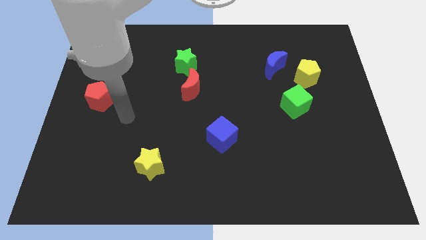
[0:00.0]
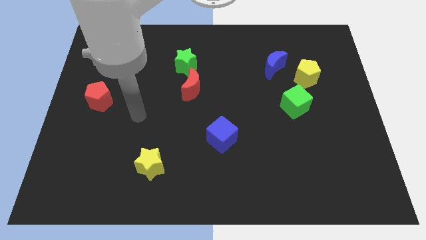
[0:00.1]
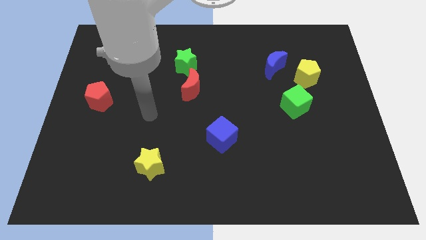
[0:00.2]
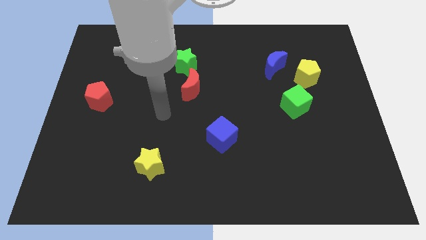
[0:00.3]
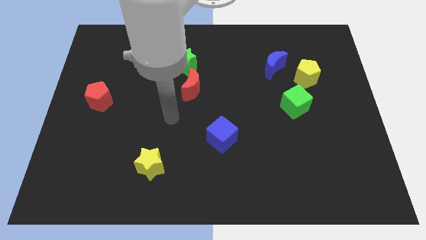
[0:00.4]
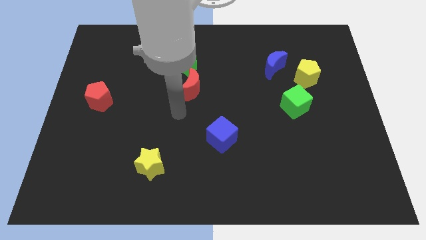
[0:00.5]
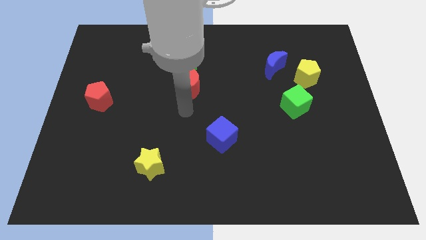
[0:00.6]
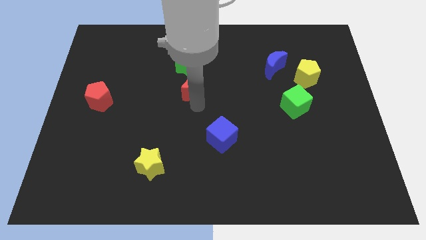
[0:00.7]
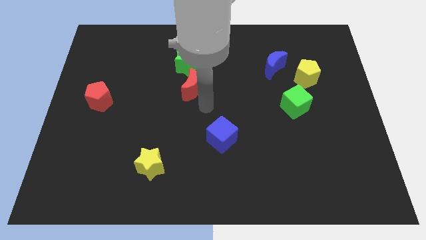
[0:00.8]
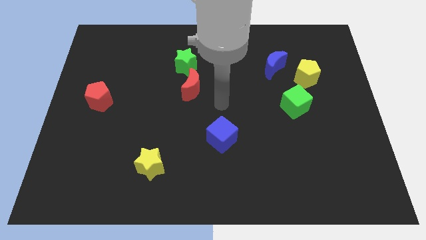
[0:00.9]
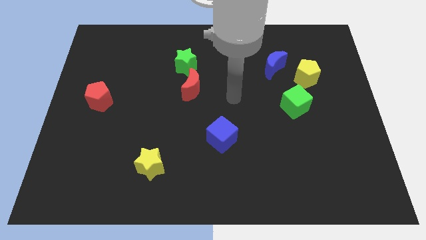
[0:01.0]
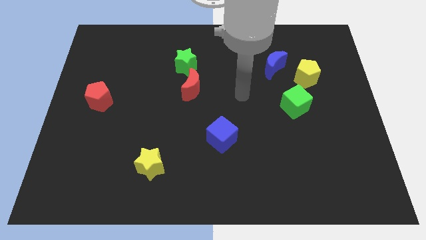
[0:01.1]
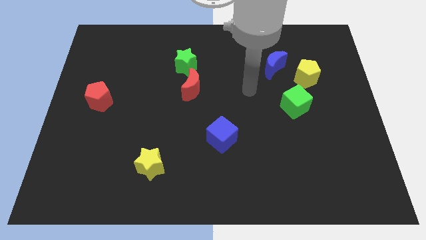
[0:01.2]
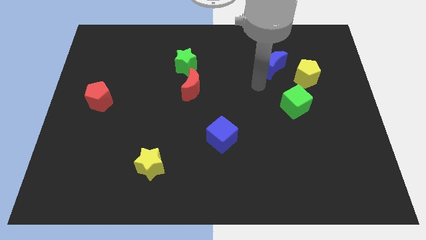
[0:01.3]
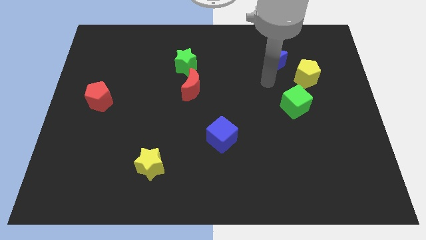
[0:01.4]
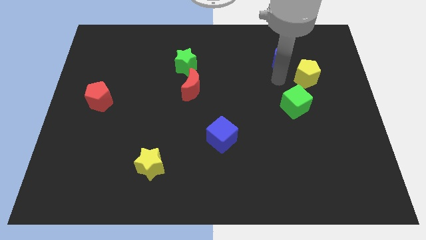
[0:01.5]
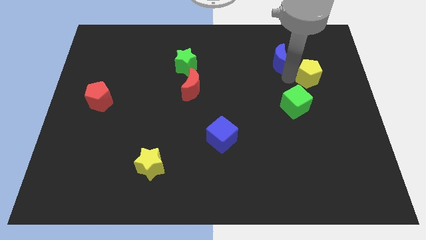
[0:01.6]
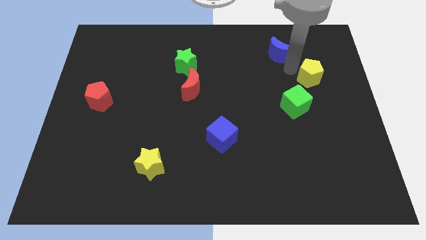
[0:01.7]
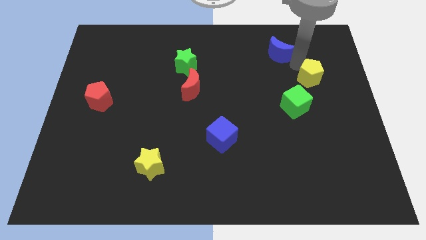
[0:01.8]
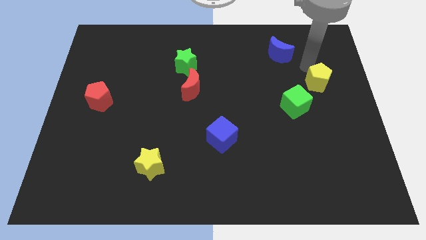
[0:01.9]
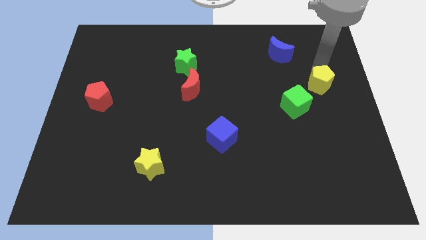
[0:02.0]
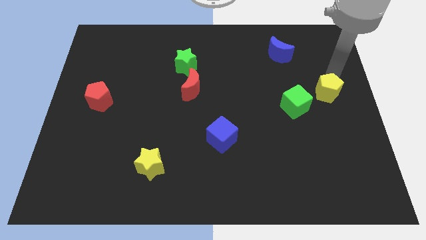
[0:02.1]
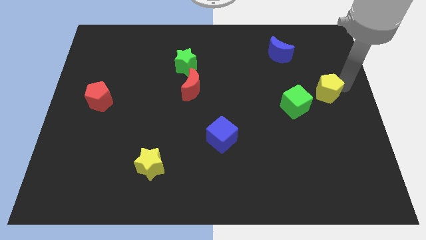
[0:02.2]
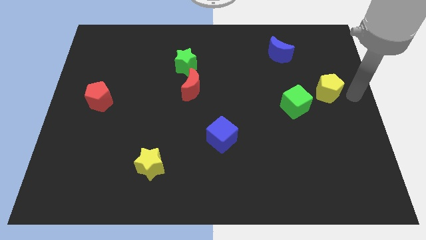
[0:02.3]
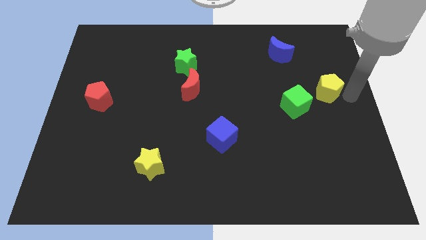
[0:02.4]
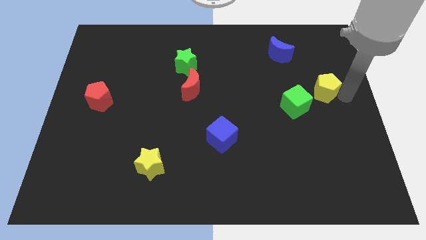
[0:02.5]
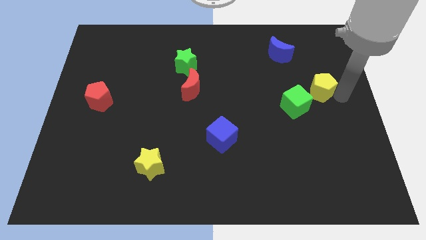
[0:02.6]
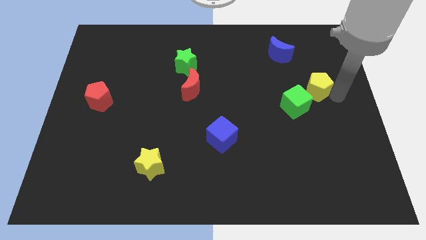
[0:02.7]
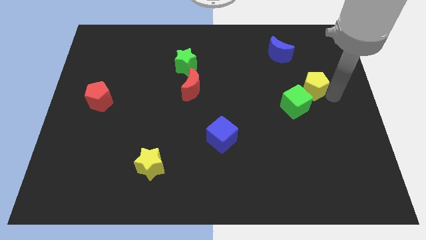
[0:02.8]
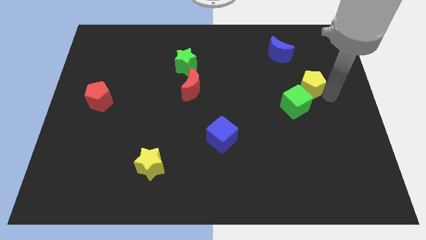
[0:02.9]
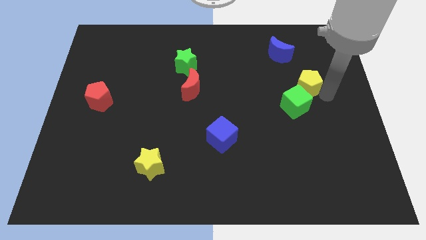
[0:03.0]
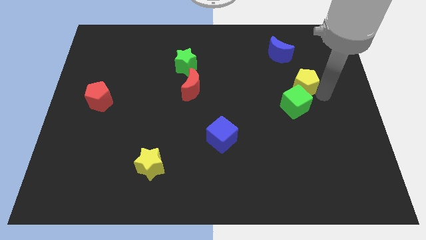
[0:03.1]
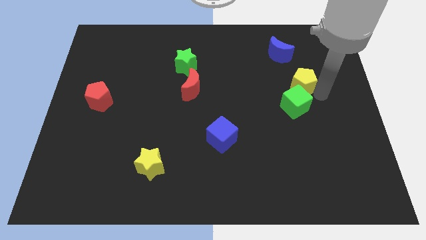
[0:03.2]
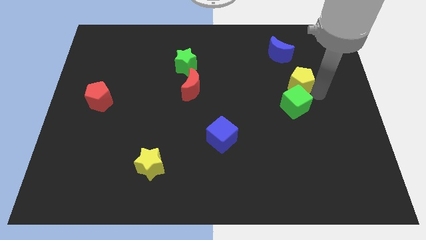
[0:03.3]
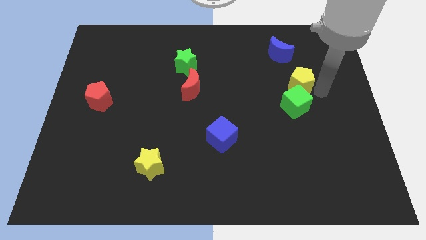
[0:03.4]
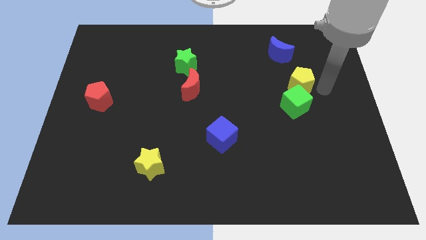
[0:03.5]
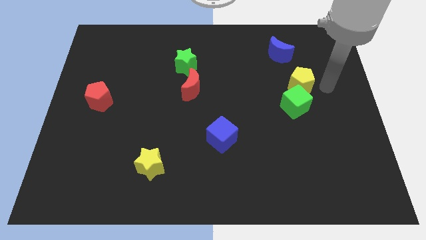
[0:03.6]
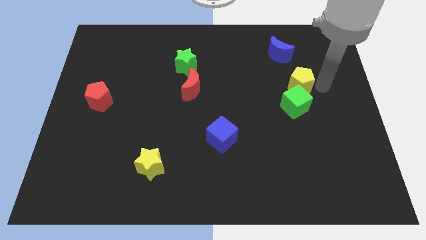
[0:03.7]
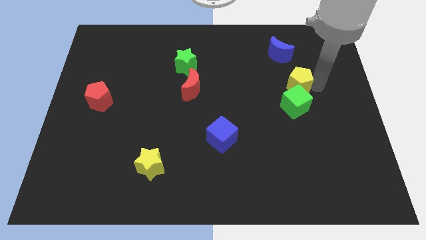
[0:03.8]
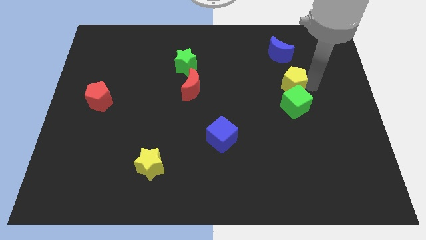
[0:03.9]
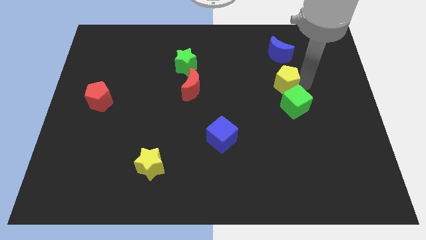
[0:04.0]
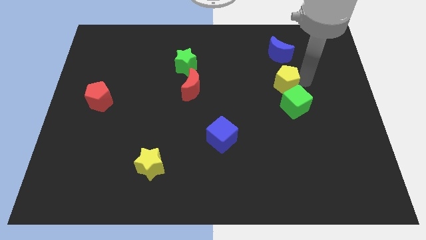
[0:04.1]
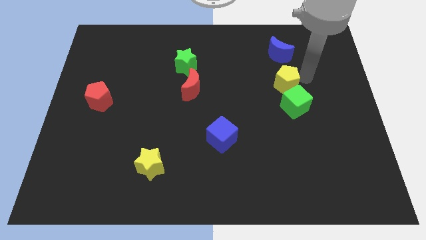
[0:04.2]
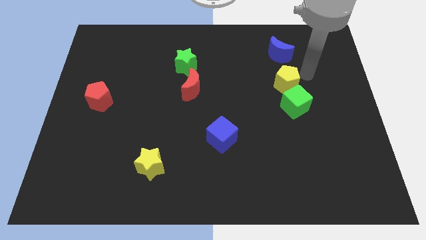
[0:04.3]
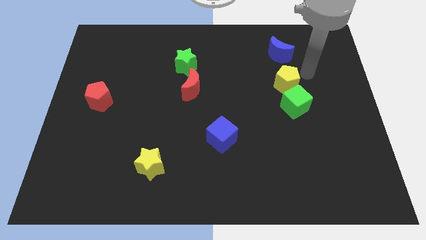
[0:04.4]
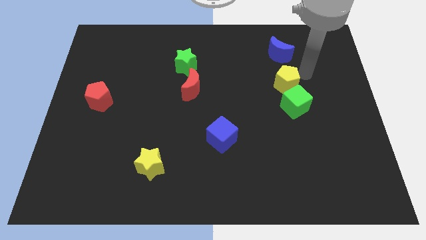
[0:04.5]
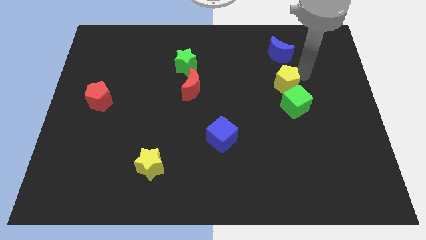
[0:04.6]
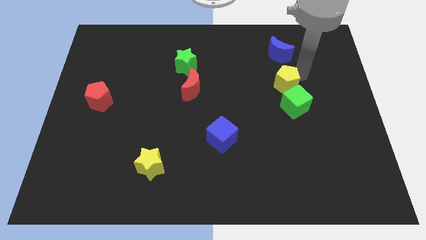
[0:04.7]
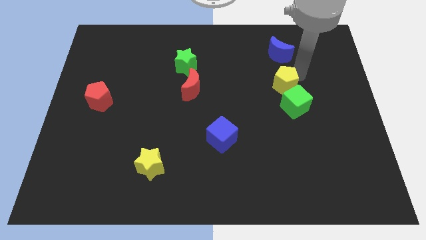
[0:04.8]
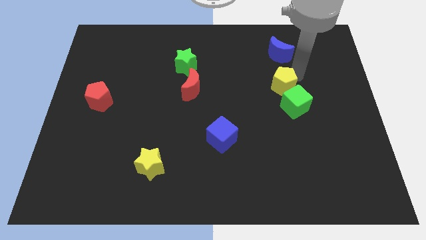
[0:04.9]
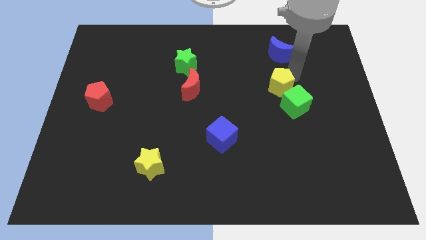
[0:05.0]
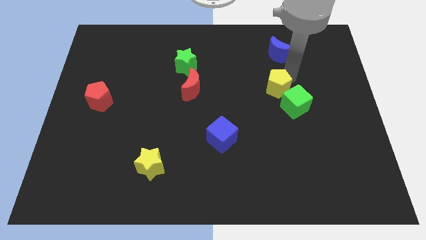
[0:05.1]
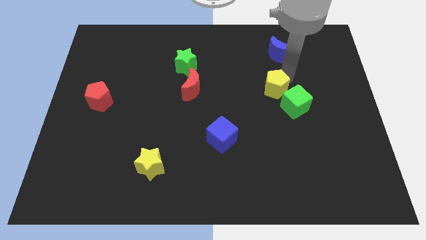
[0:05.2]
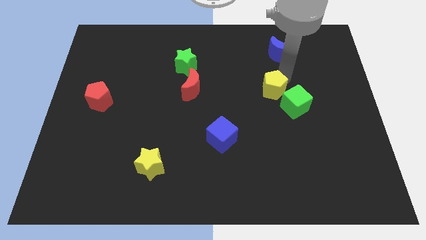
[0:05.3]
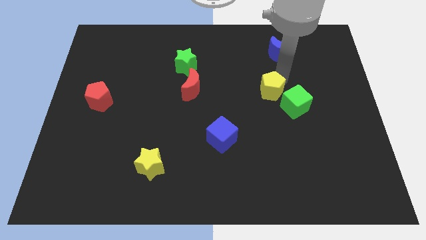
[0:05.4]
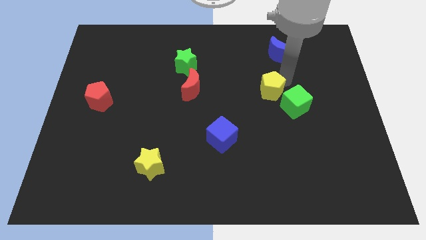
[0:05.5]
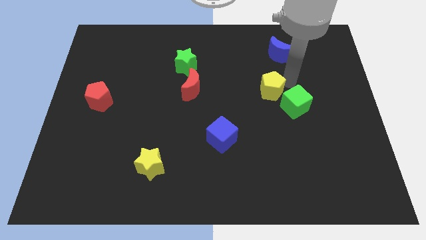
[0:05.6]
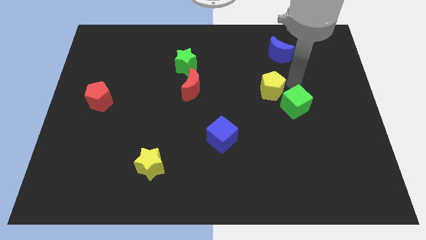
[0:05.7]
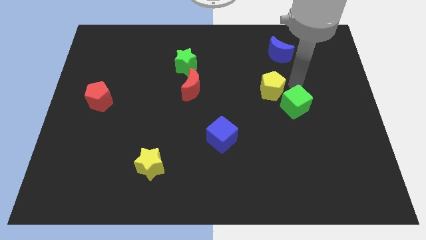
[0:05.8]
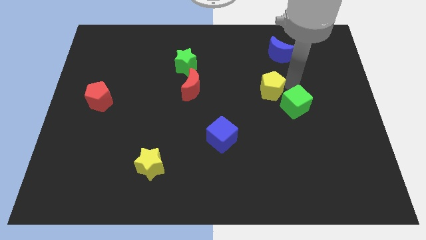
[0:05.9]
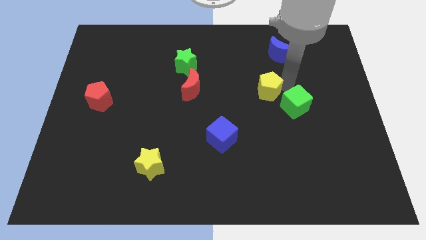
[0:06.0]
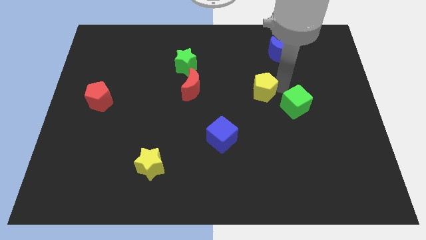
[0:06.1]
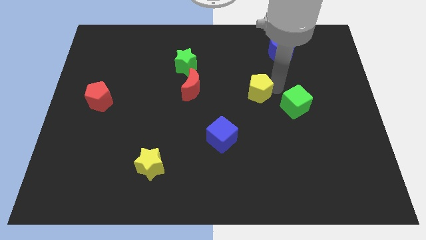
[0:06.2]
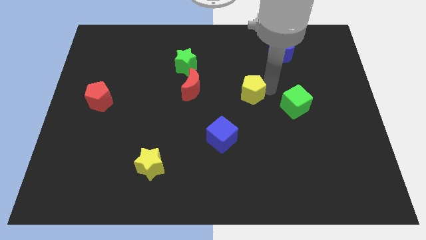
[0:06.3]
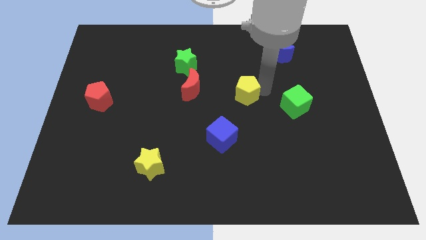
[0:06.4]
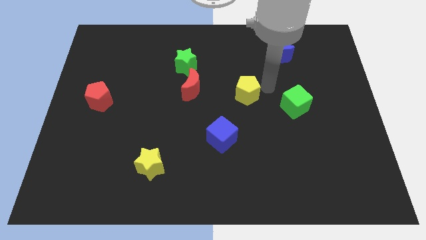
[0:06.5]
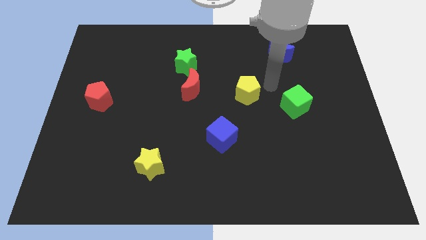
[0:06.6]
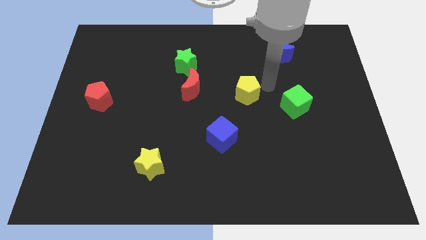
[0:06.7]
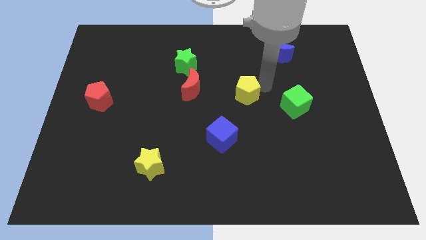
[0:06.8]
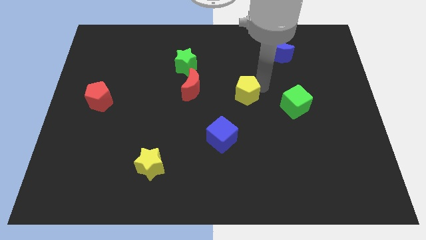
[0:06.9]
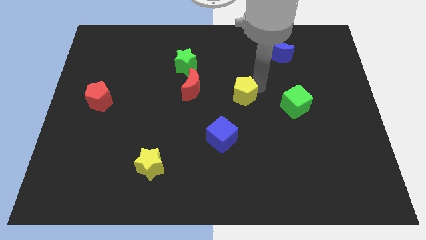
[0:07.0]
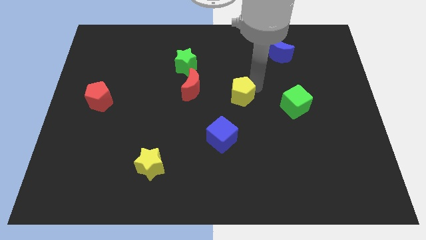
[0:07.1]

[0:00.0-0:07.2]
slide the yellow pentagon above the blue cube
